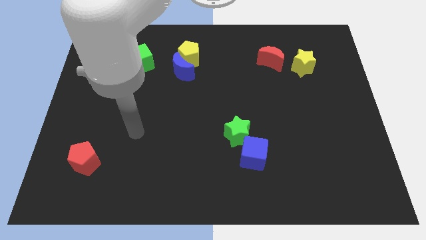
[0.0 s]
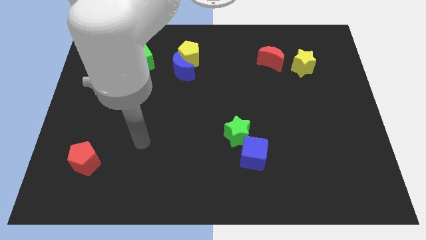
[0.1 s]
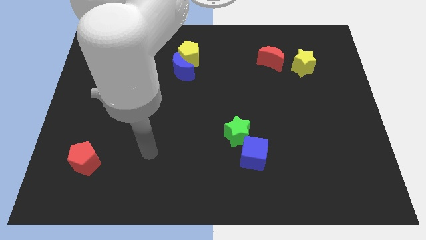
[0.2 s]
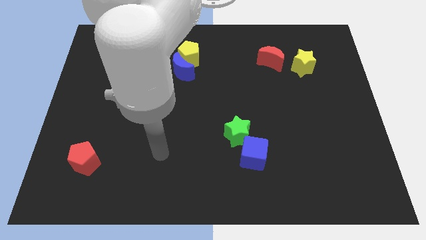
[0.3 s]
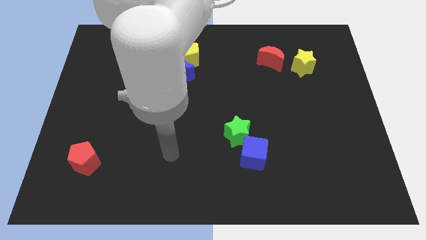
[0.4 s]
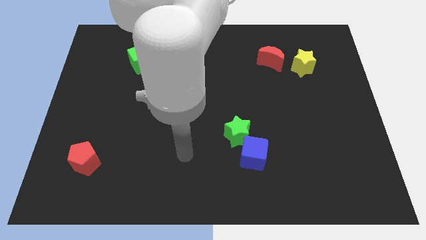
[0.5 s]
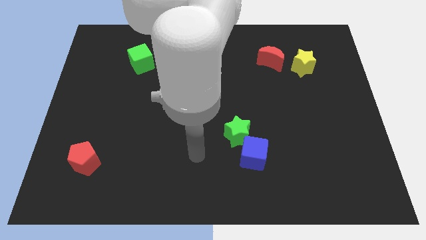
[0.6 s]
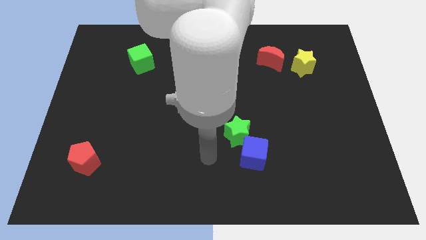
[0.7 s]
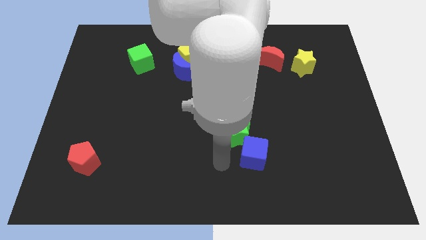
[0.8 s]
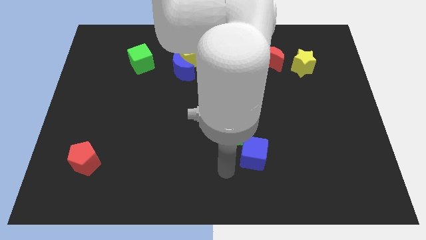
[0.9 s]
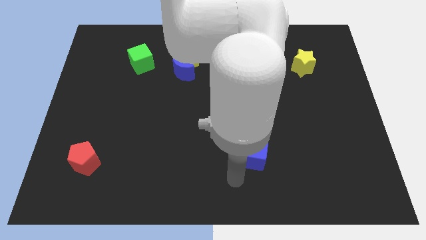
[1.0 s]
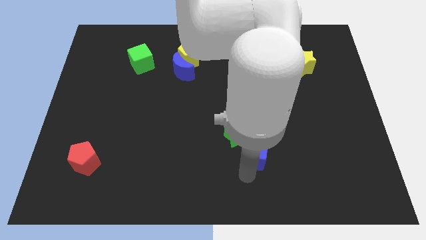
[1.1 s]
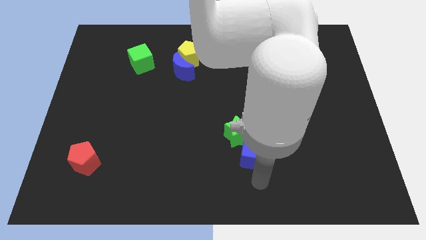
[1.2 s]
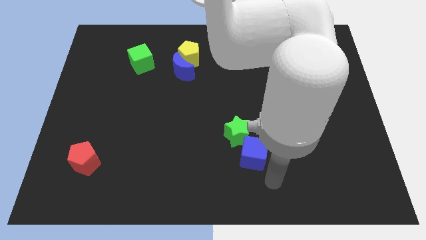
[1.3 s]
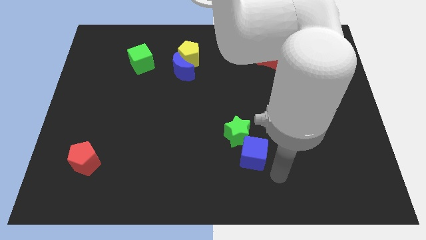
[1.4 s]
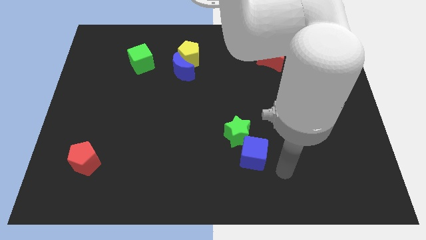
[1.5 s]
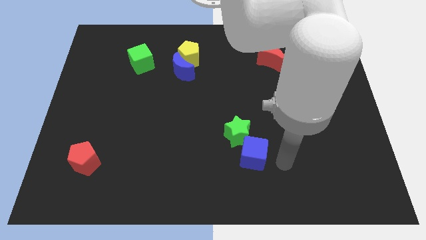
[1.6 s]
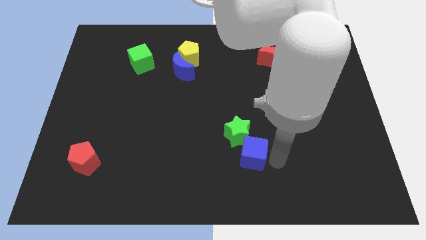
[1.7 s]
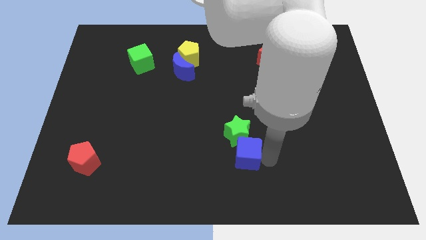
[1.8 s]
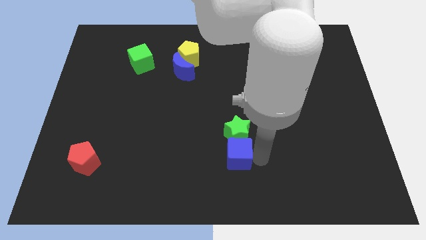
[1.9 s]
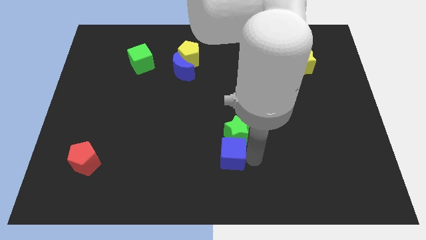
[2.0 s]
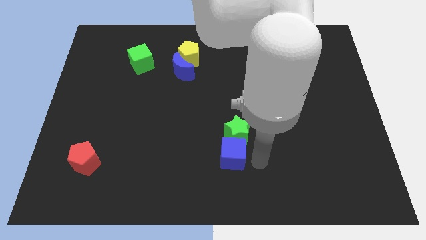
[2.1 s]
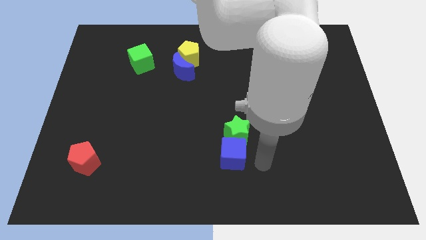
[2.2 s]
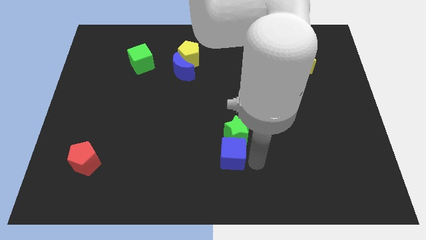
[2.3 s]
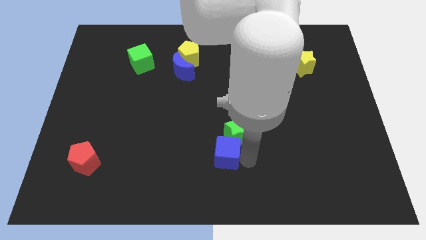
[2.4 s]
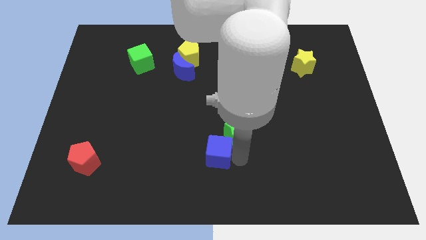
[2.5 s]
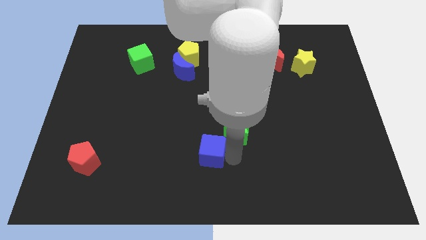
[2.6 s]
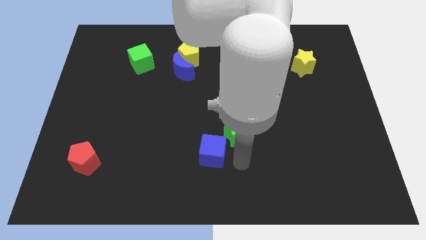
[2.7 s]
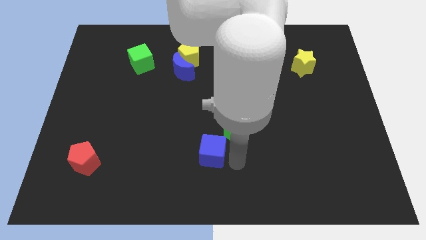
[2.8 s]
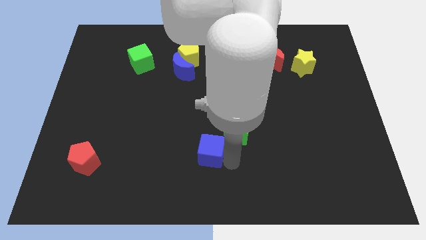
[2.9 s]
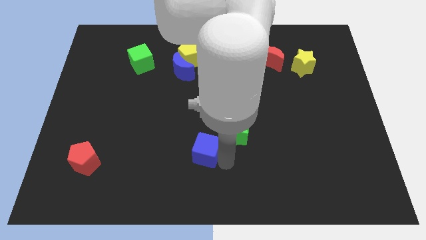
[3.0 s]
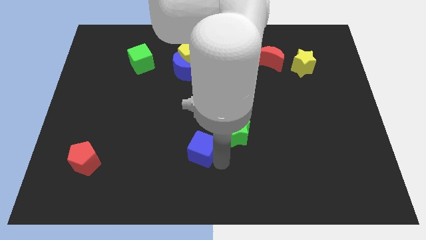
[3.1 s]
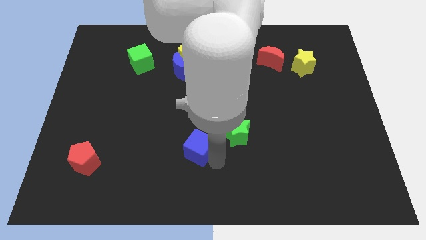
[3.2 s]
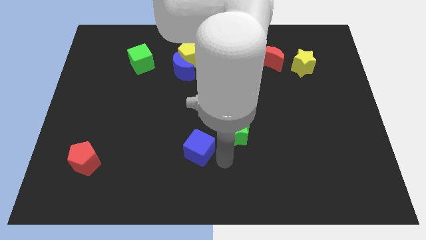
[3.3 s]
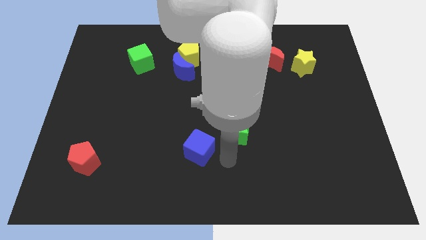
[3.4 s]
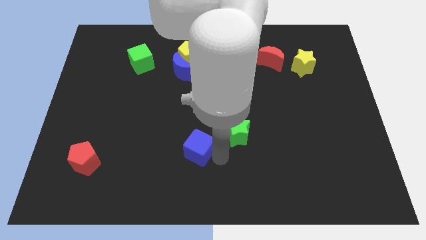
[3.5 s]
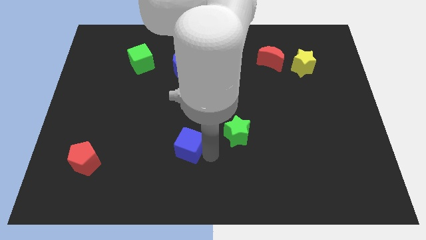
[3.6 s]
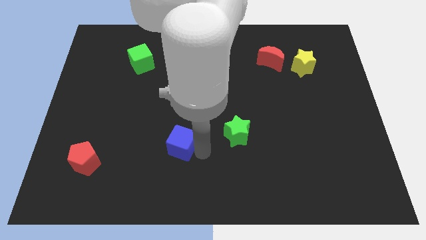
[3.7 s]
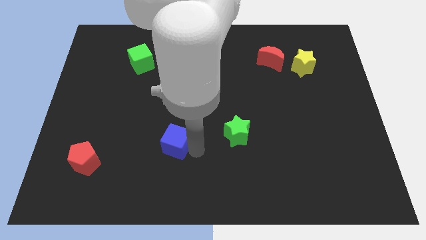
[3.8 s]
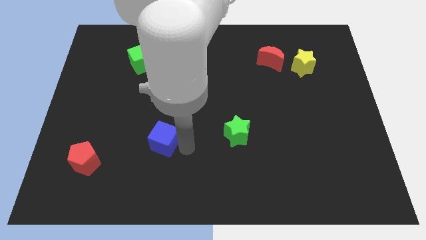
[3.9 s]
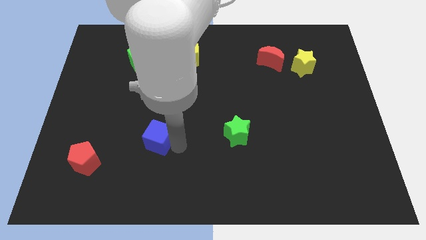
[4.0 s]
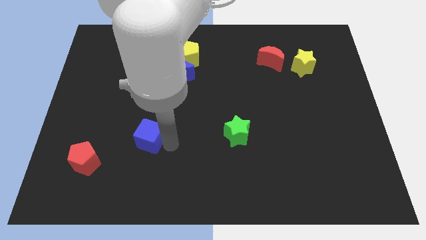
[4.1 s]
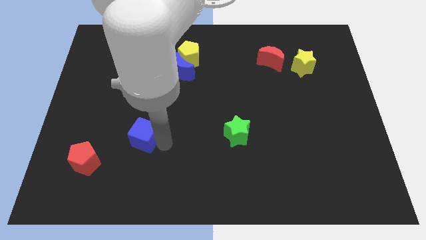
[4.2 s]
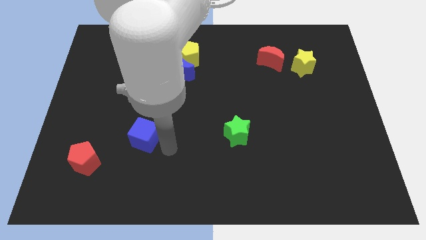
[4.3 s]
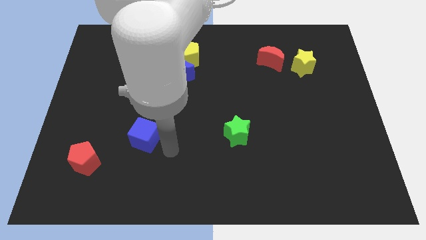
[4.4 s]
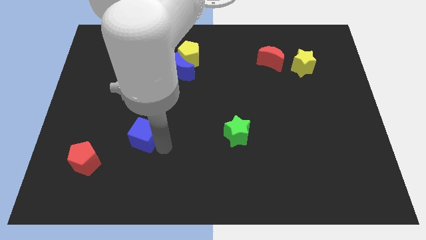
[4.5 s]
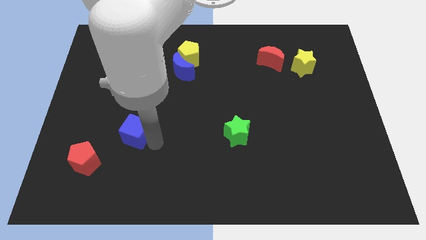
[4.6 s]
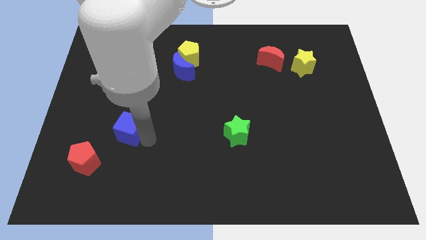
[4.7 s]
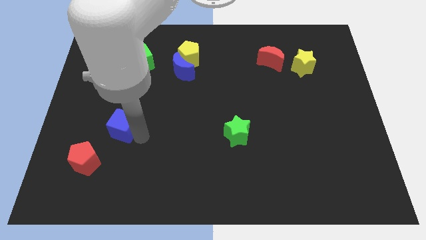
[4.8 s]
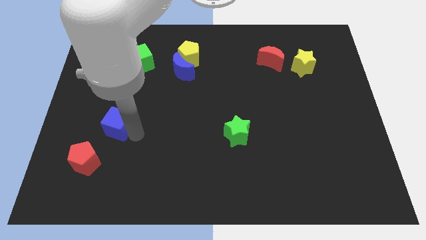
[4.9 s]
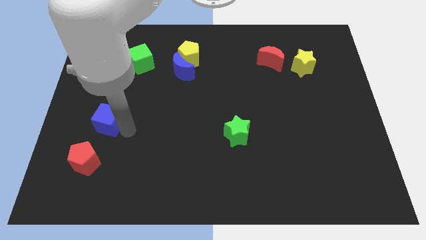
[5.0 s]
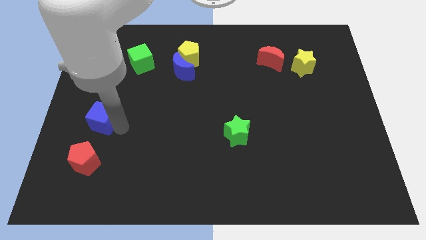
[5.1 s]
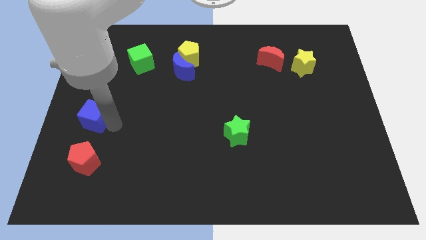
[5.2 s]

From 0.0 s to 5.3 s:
move the blue cube to the left side of the board

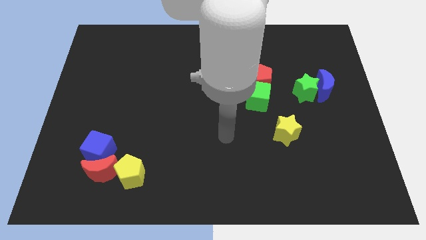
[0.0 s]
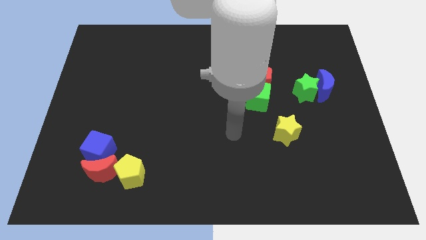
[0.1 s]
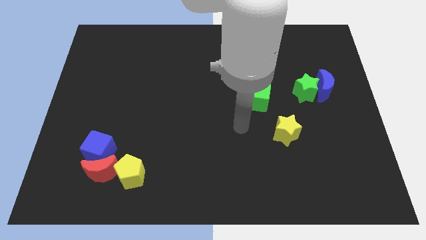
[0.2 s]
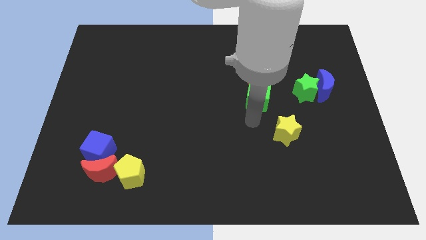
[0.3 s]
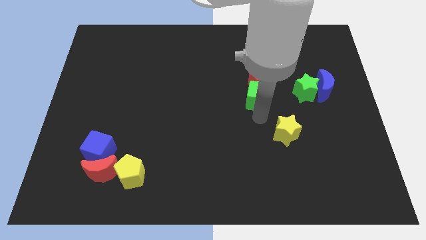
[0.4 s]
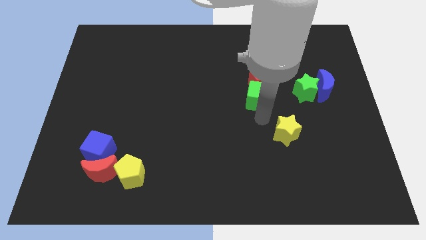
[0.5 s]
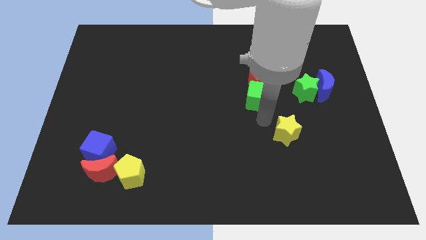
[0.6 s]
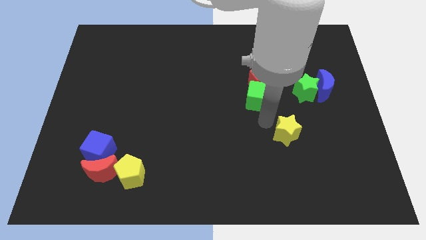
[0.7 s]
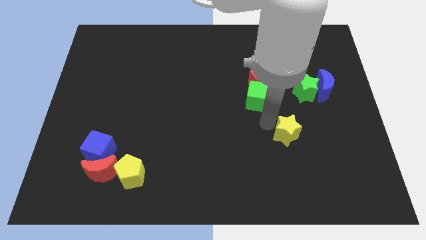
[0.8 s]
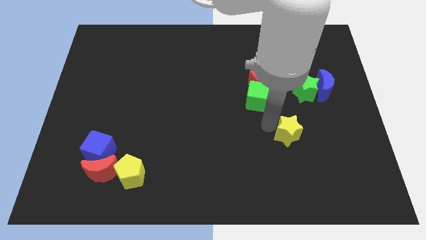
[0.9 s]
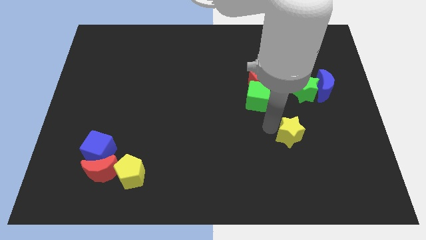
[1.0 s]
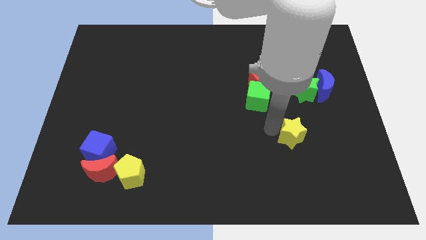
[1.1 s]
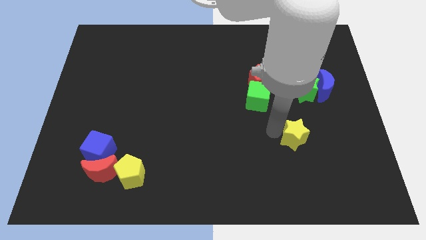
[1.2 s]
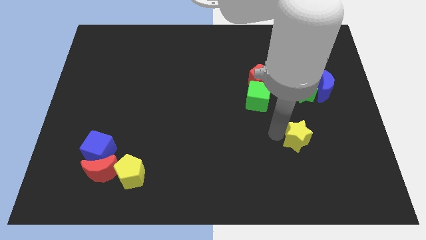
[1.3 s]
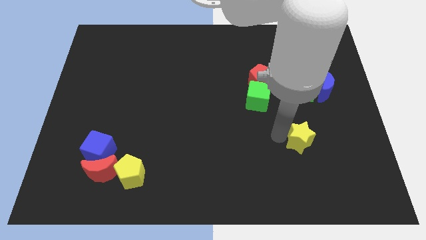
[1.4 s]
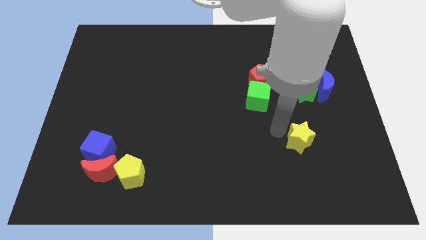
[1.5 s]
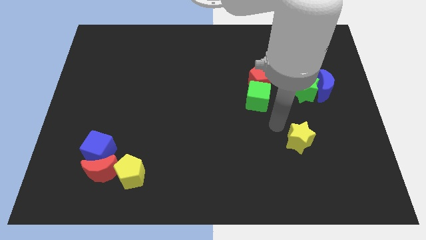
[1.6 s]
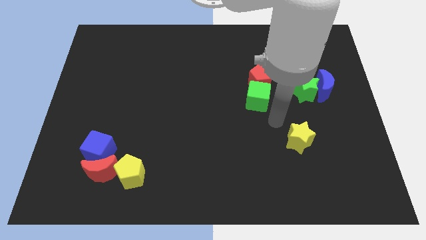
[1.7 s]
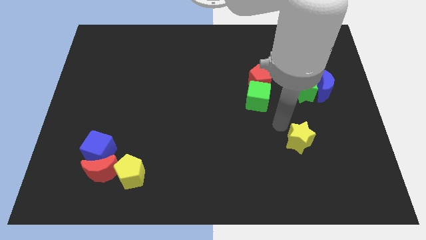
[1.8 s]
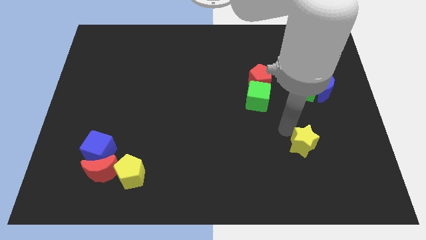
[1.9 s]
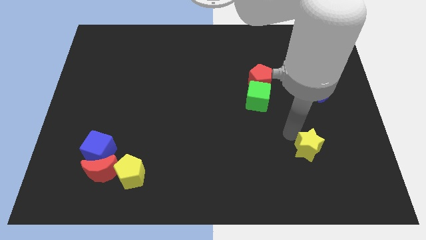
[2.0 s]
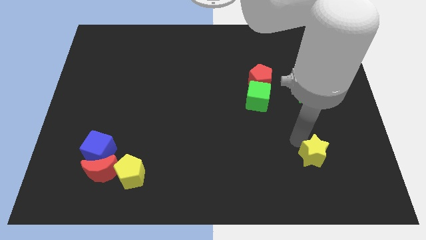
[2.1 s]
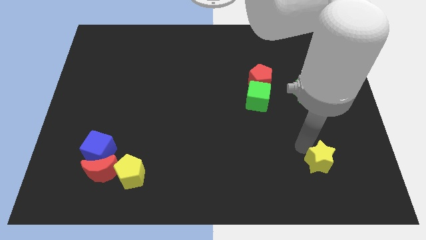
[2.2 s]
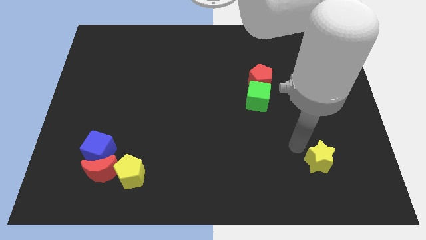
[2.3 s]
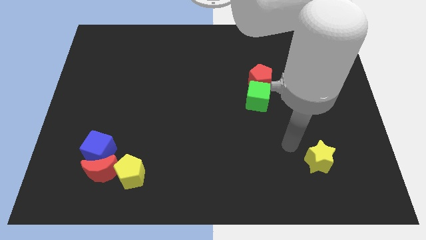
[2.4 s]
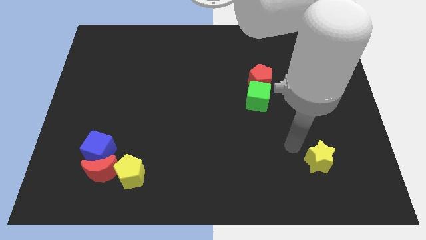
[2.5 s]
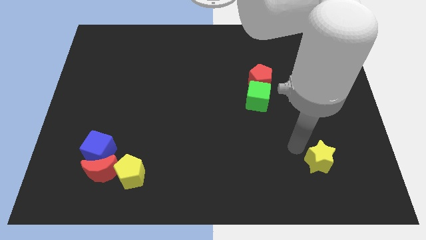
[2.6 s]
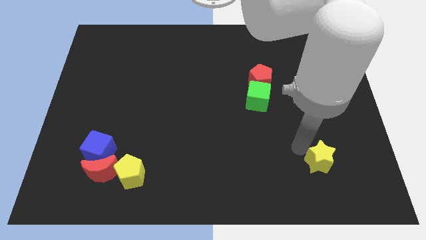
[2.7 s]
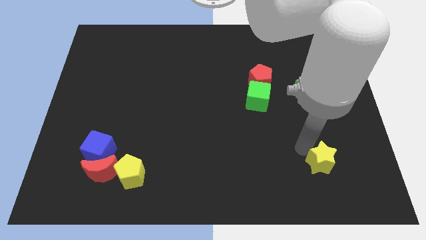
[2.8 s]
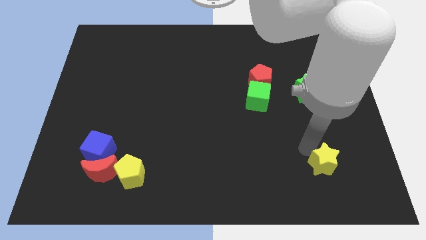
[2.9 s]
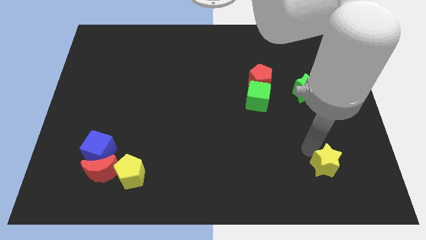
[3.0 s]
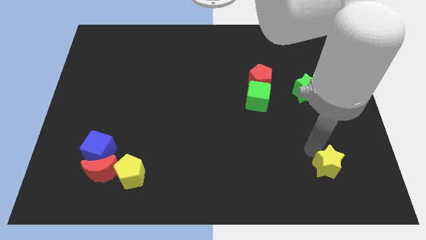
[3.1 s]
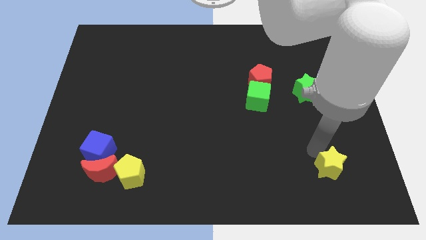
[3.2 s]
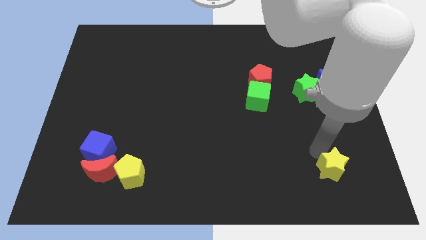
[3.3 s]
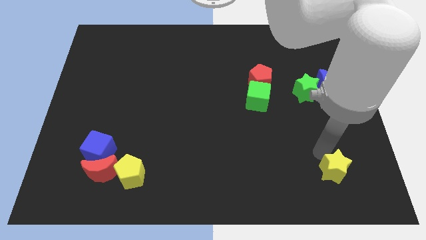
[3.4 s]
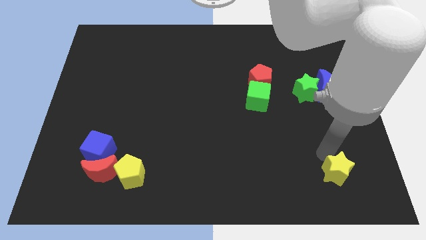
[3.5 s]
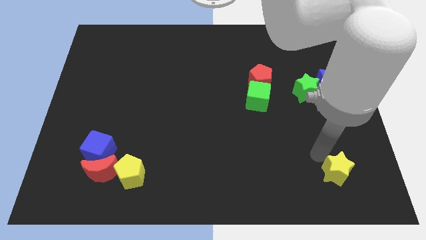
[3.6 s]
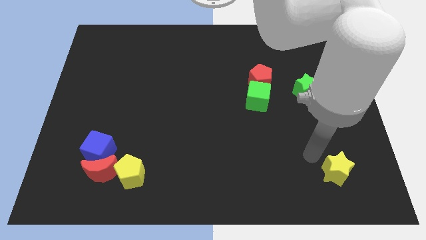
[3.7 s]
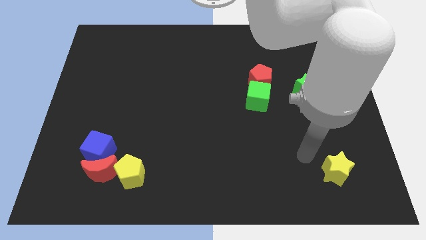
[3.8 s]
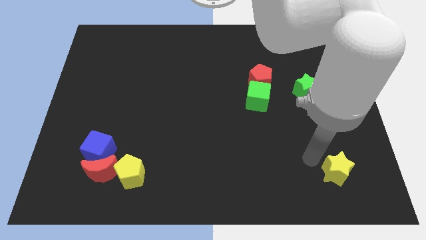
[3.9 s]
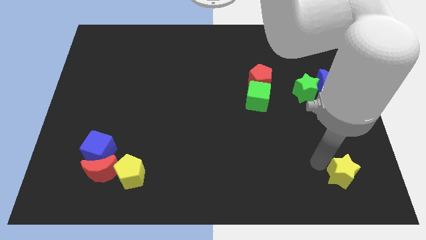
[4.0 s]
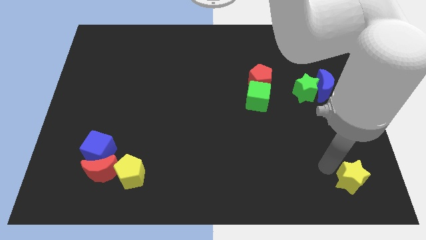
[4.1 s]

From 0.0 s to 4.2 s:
slide the yellow star to the bottom right
